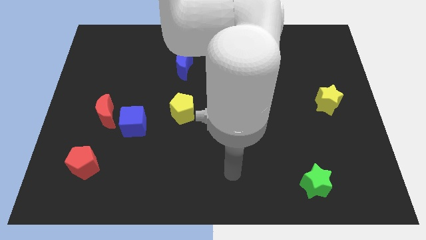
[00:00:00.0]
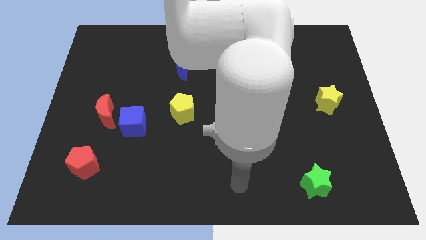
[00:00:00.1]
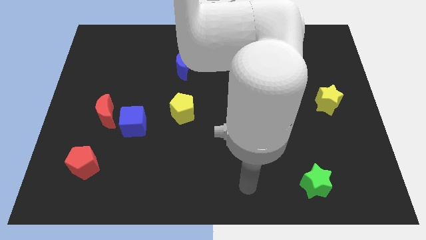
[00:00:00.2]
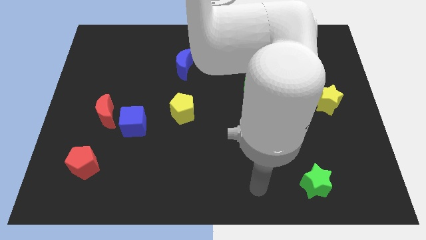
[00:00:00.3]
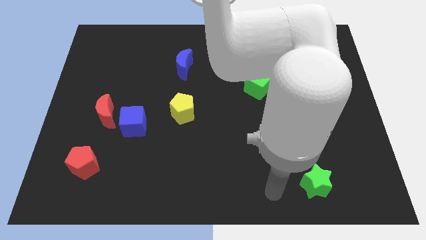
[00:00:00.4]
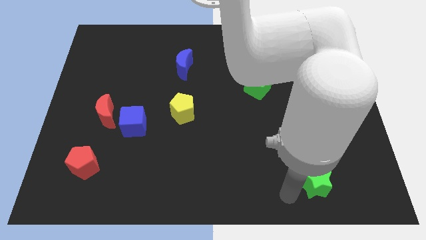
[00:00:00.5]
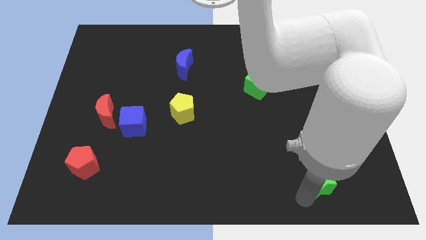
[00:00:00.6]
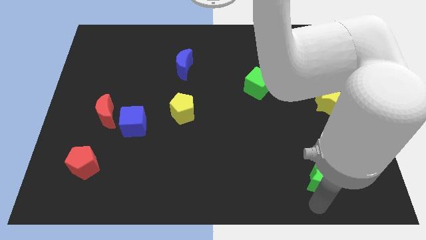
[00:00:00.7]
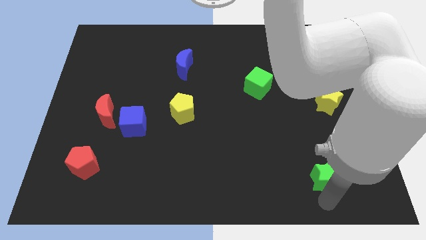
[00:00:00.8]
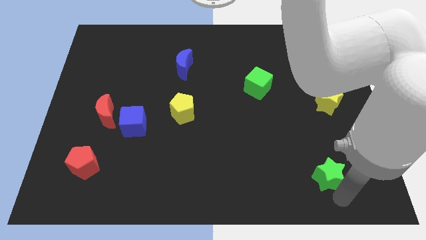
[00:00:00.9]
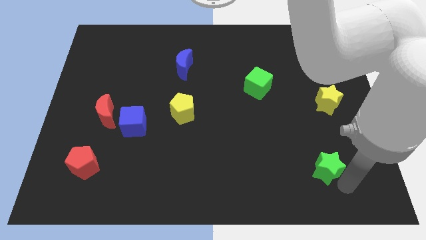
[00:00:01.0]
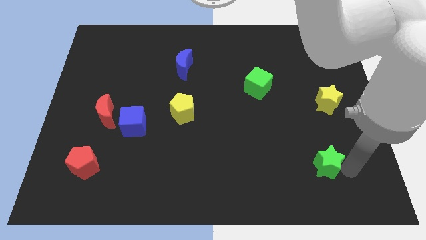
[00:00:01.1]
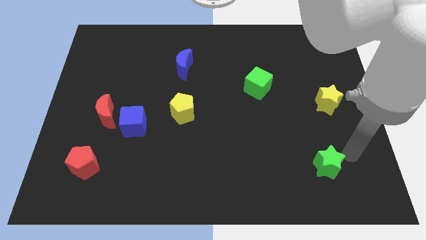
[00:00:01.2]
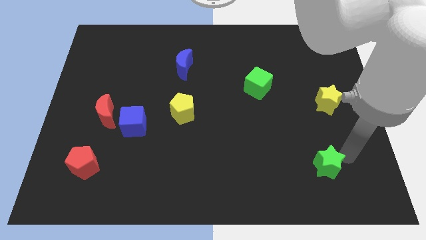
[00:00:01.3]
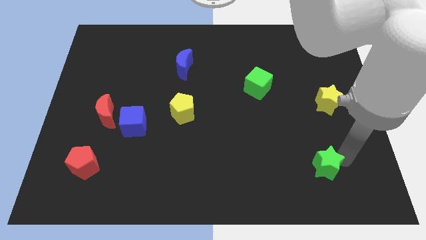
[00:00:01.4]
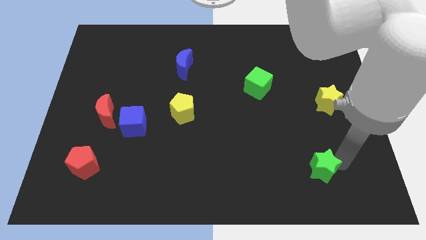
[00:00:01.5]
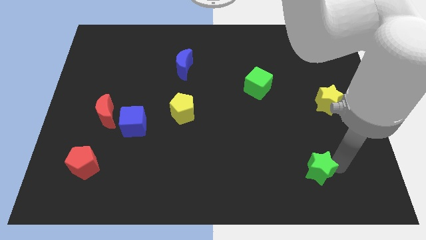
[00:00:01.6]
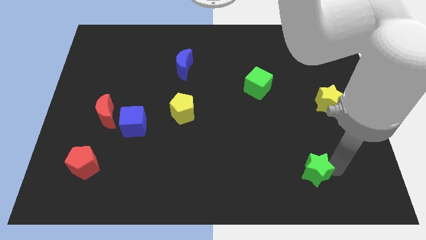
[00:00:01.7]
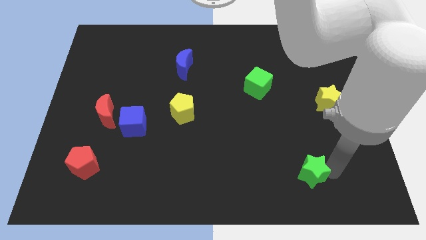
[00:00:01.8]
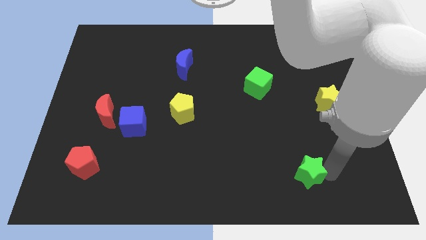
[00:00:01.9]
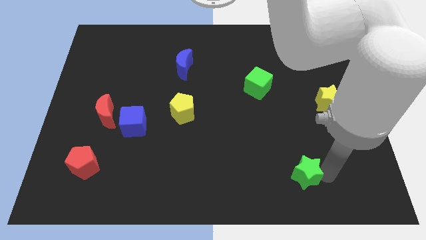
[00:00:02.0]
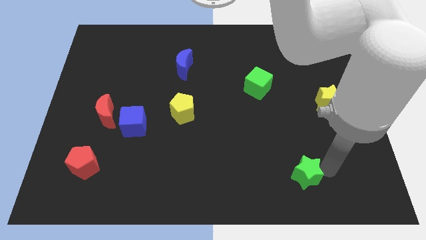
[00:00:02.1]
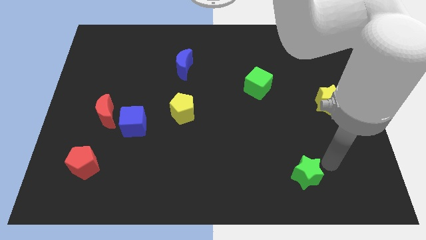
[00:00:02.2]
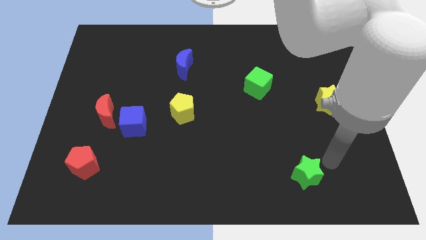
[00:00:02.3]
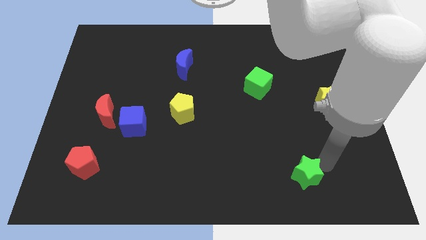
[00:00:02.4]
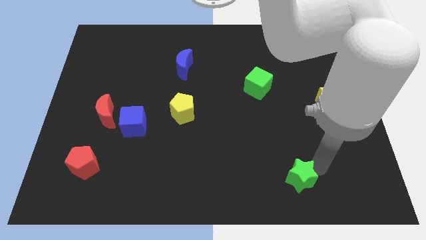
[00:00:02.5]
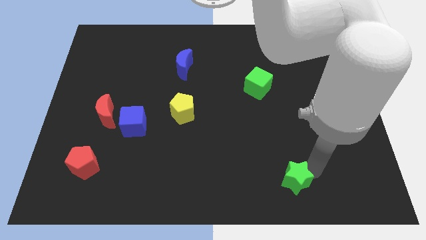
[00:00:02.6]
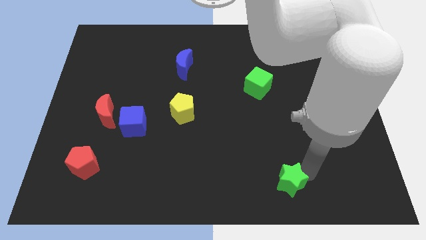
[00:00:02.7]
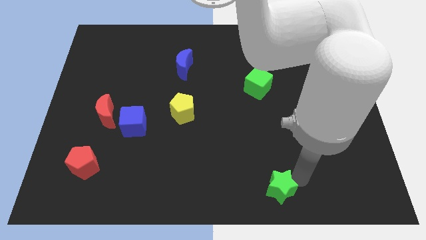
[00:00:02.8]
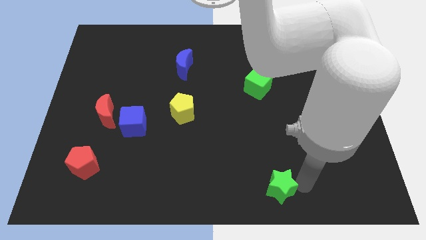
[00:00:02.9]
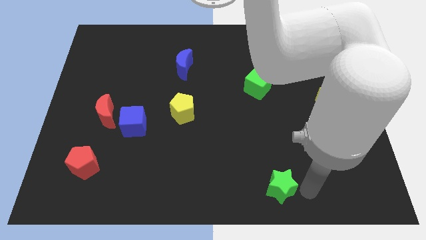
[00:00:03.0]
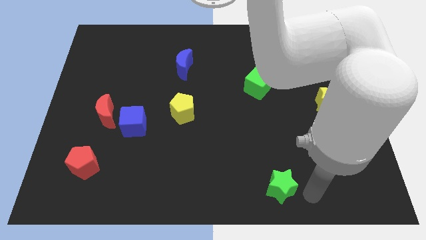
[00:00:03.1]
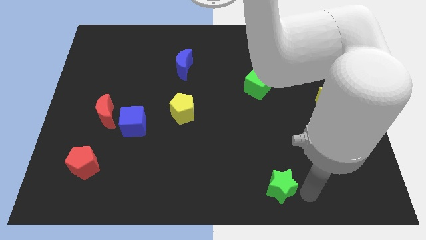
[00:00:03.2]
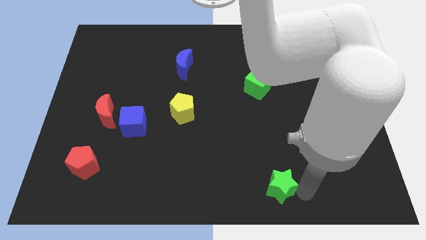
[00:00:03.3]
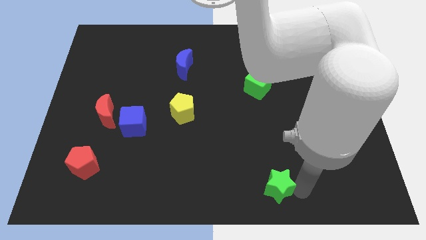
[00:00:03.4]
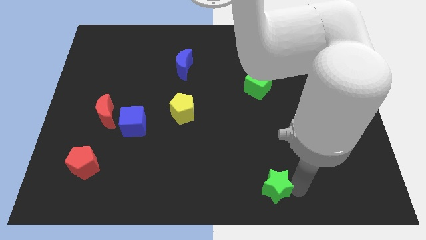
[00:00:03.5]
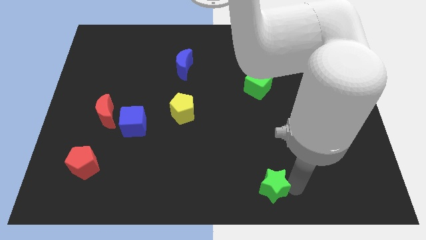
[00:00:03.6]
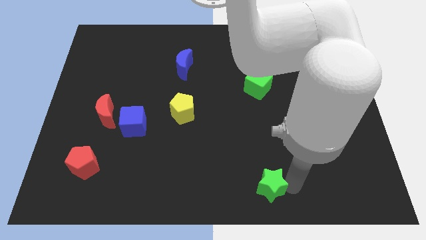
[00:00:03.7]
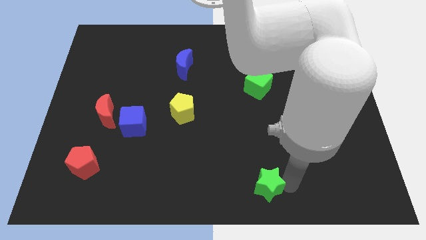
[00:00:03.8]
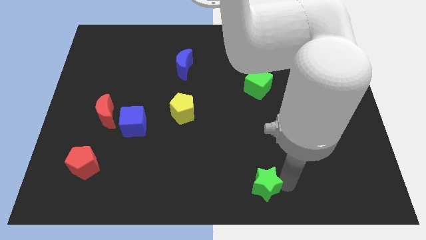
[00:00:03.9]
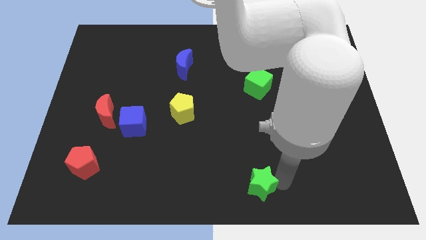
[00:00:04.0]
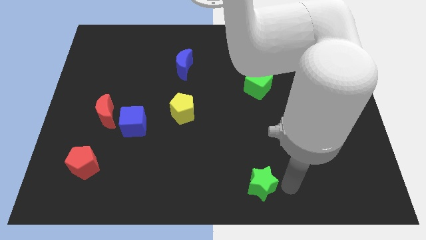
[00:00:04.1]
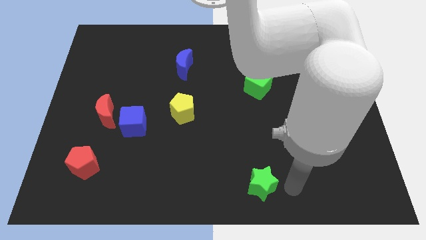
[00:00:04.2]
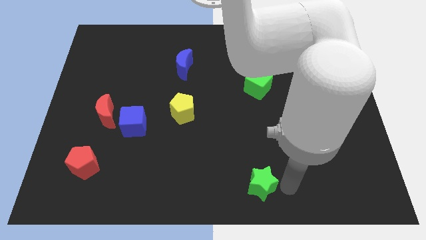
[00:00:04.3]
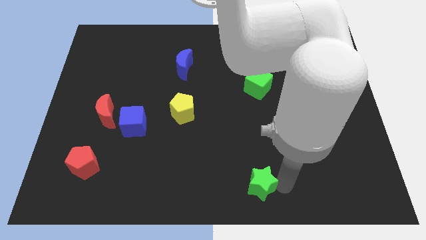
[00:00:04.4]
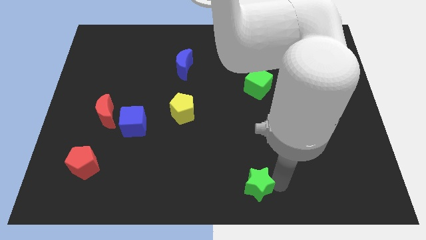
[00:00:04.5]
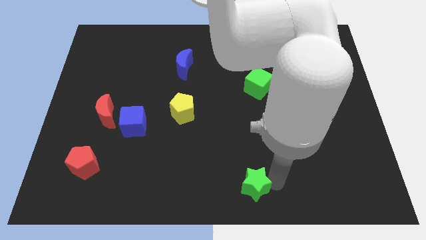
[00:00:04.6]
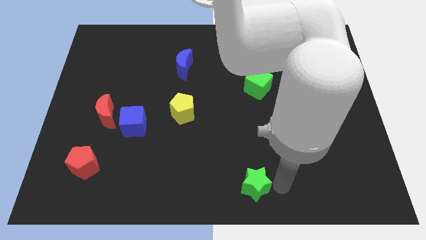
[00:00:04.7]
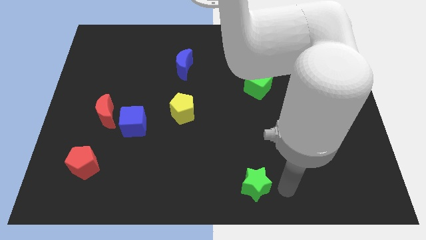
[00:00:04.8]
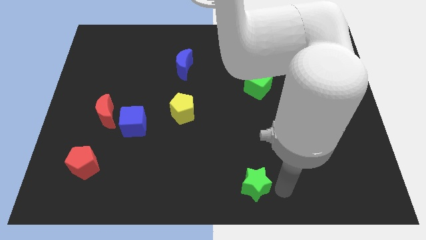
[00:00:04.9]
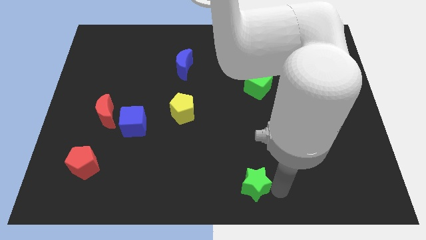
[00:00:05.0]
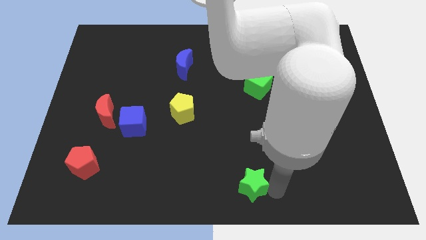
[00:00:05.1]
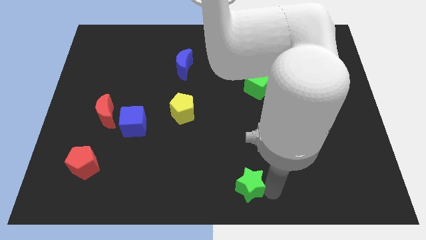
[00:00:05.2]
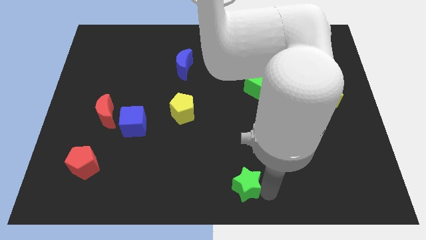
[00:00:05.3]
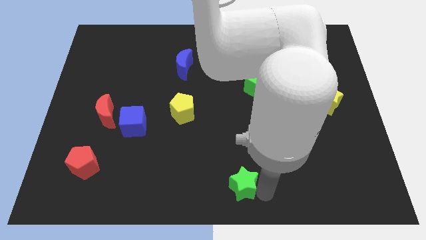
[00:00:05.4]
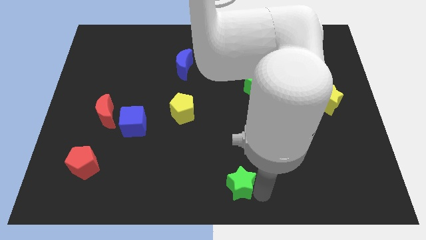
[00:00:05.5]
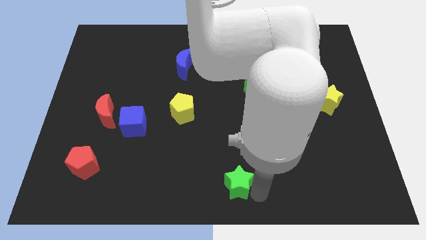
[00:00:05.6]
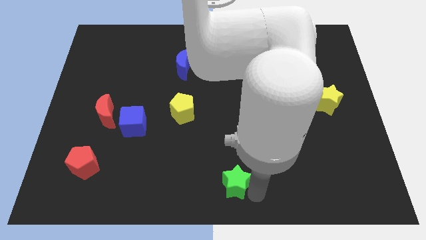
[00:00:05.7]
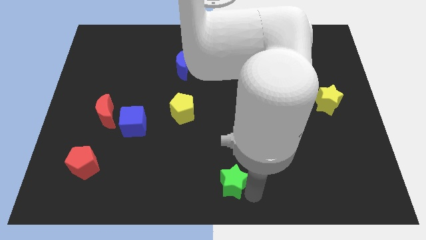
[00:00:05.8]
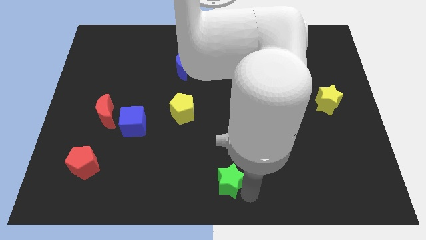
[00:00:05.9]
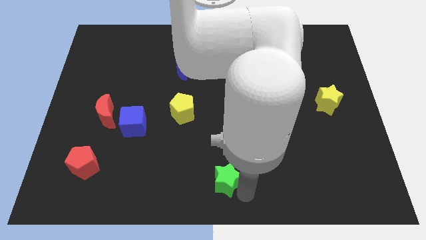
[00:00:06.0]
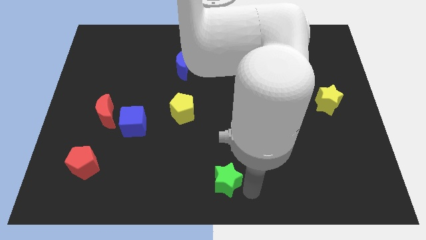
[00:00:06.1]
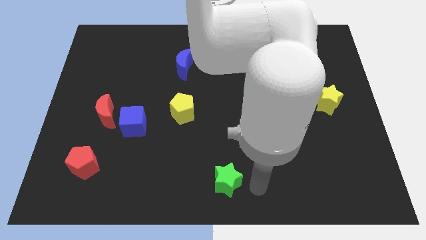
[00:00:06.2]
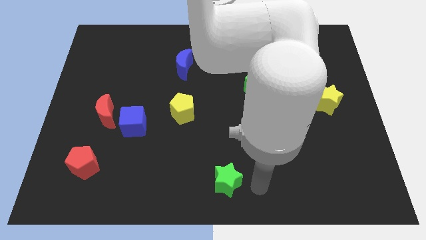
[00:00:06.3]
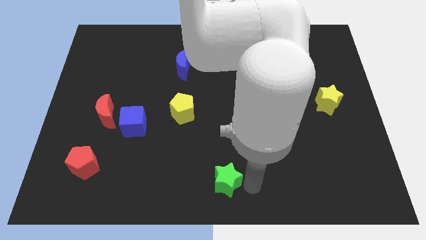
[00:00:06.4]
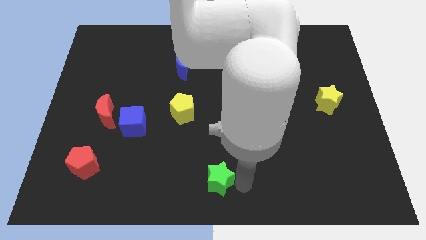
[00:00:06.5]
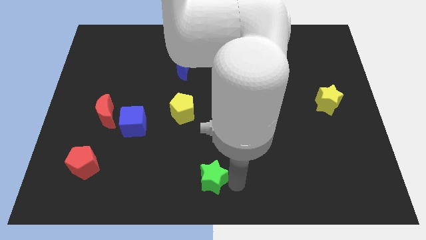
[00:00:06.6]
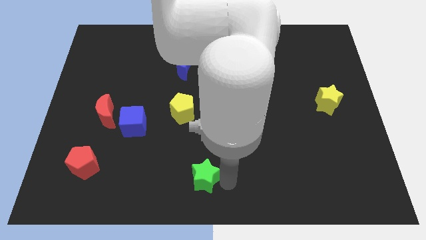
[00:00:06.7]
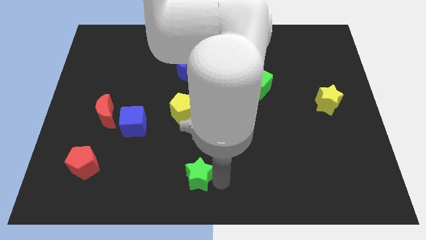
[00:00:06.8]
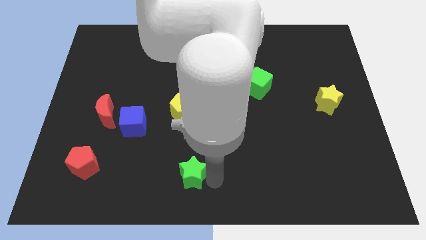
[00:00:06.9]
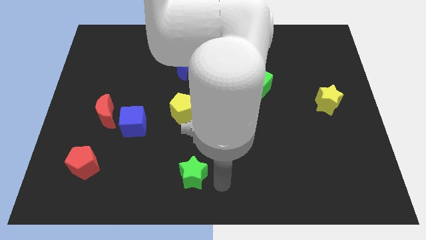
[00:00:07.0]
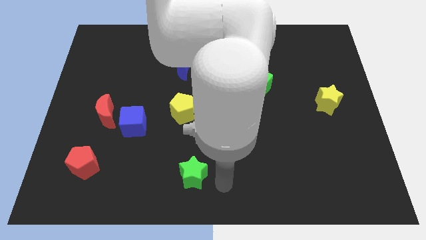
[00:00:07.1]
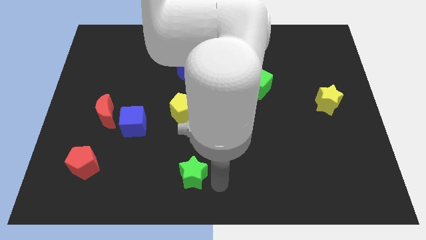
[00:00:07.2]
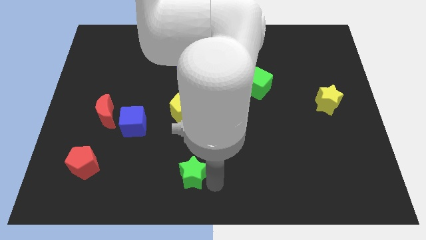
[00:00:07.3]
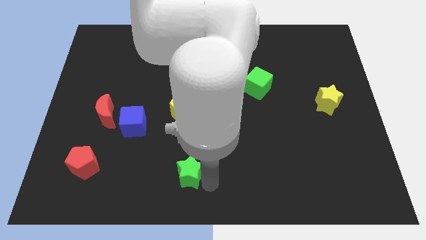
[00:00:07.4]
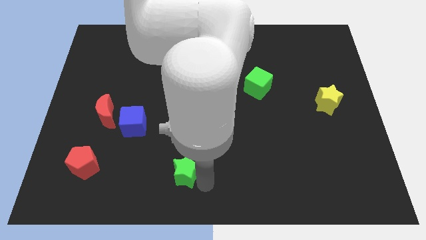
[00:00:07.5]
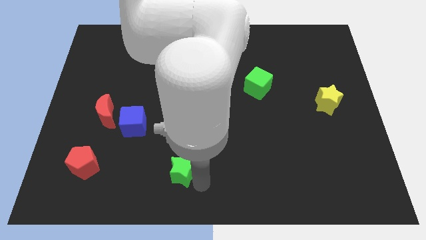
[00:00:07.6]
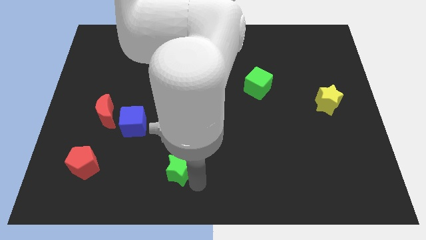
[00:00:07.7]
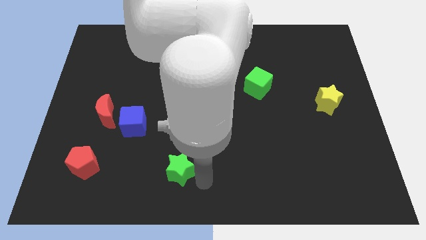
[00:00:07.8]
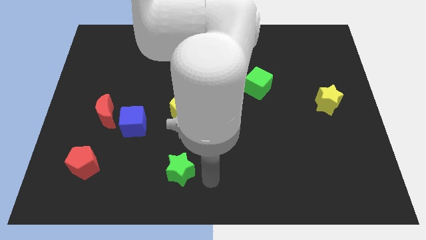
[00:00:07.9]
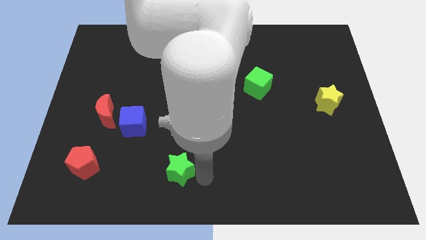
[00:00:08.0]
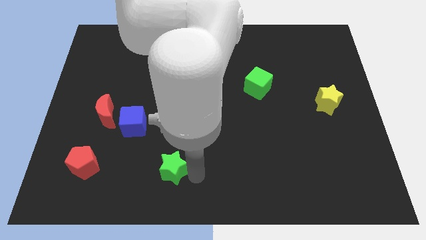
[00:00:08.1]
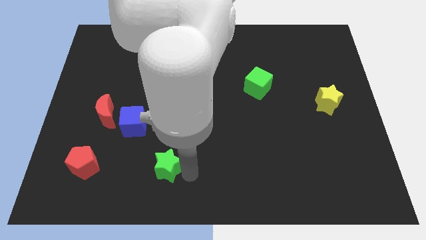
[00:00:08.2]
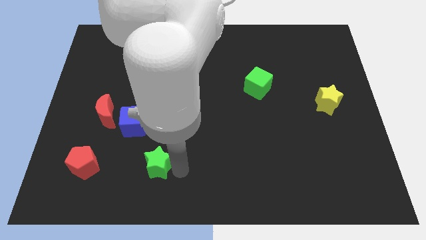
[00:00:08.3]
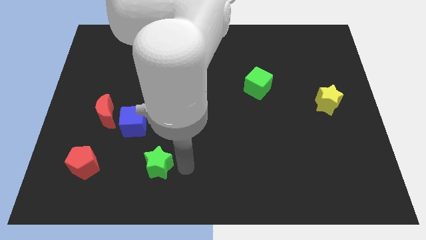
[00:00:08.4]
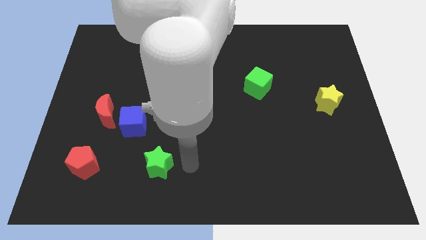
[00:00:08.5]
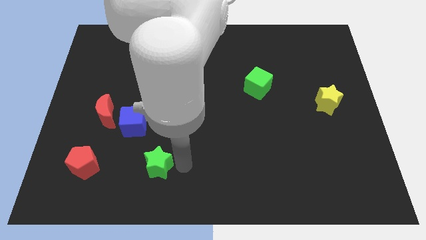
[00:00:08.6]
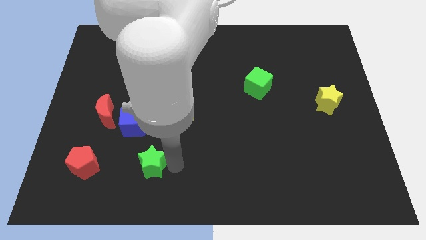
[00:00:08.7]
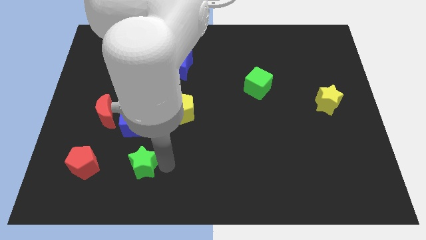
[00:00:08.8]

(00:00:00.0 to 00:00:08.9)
put the green star to the bottom side of the blue cube

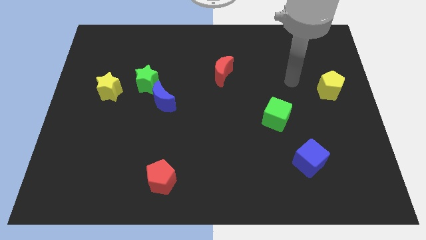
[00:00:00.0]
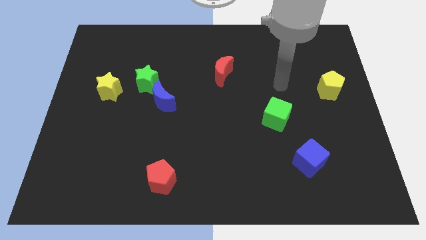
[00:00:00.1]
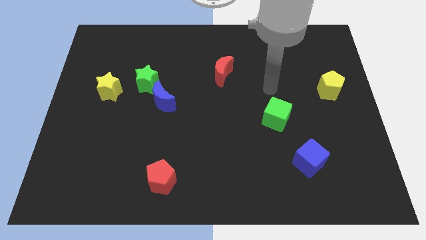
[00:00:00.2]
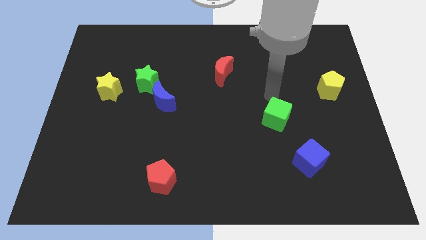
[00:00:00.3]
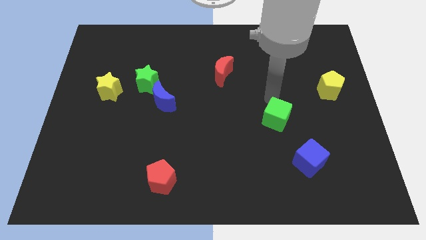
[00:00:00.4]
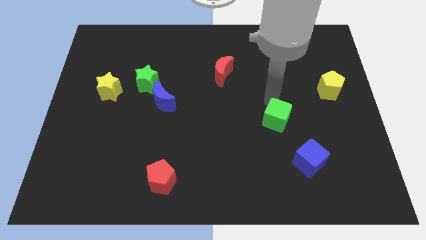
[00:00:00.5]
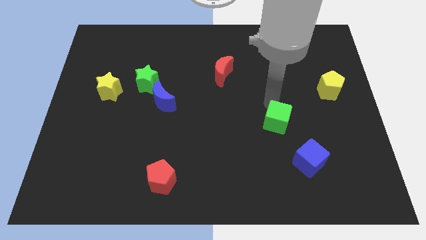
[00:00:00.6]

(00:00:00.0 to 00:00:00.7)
slide the green cube diagonally up and to the left of the blue cube
